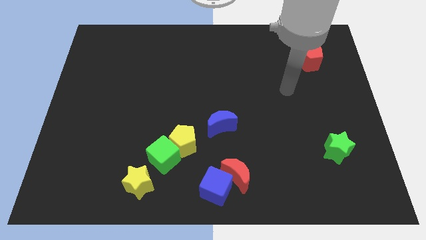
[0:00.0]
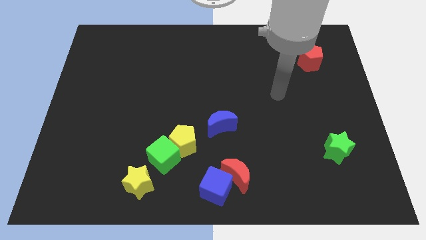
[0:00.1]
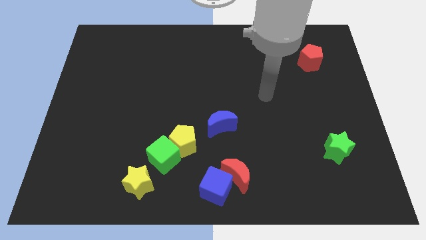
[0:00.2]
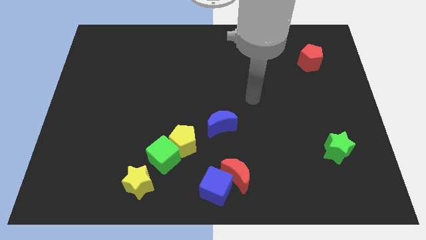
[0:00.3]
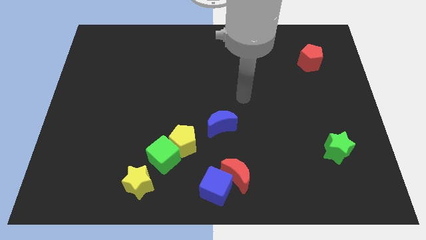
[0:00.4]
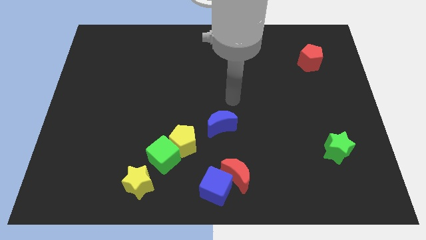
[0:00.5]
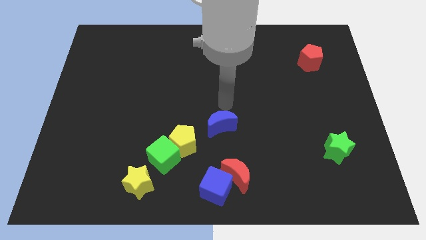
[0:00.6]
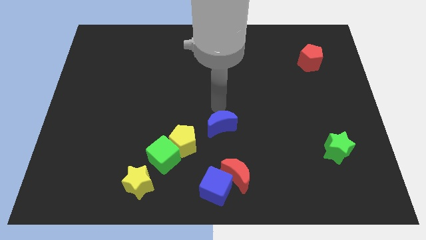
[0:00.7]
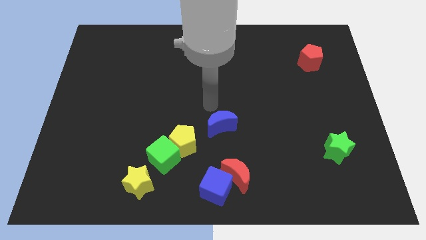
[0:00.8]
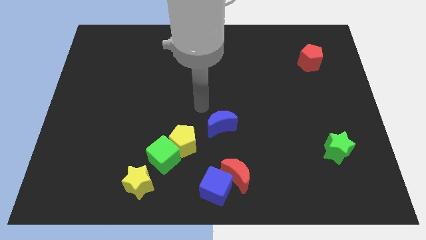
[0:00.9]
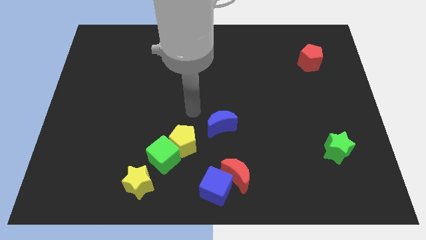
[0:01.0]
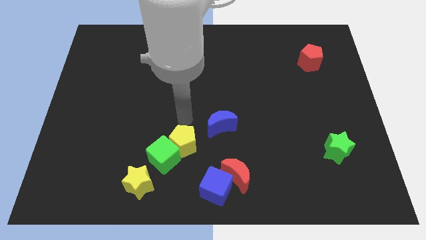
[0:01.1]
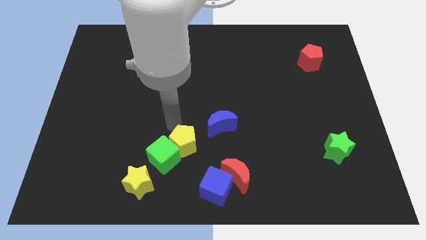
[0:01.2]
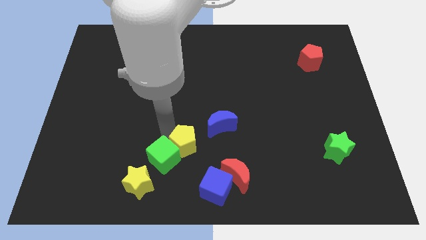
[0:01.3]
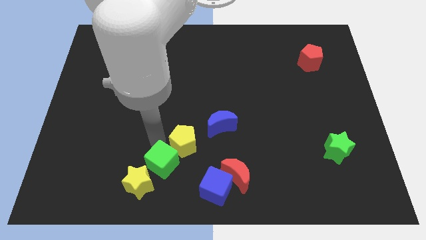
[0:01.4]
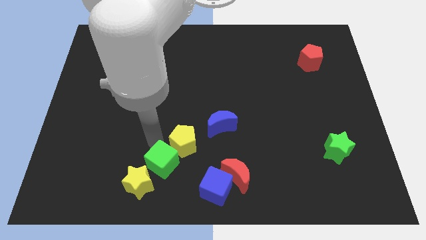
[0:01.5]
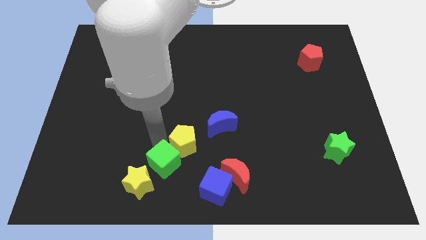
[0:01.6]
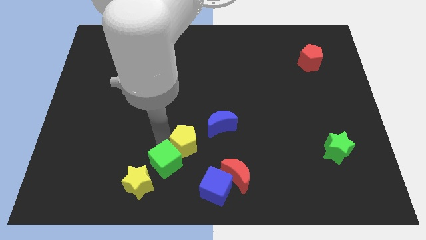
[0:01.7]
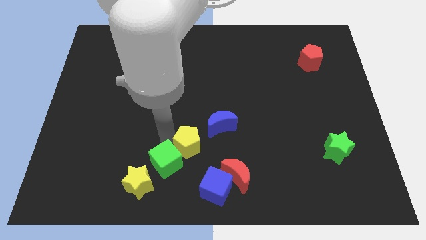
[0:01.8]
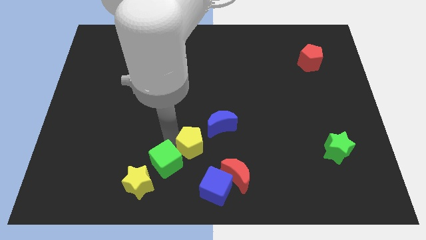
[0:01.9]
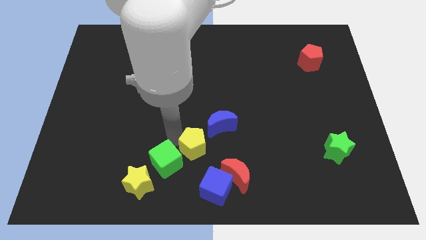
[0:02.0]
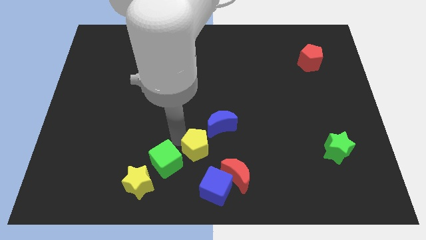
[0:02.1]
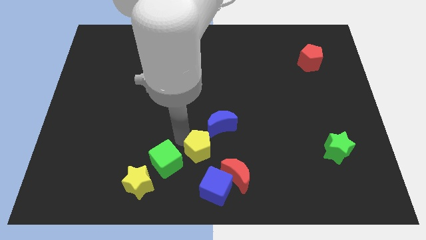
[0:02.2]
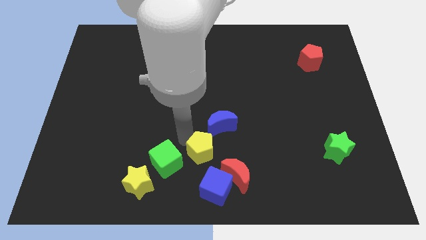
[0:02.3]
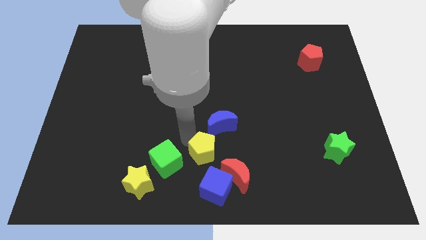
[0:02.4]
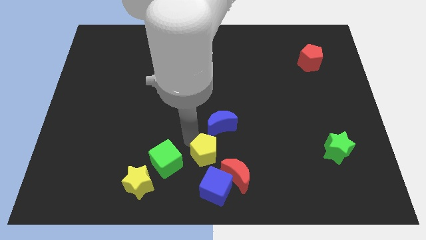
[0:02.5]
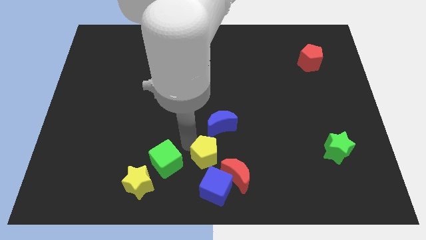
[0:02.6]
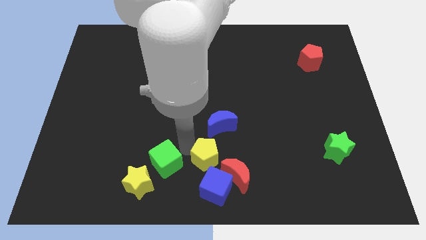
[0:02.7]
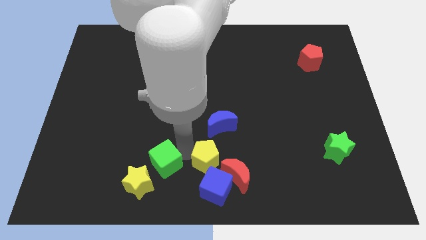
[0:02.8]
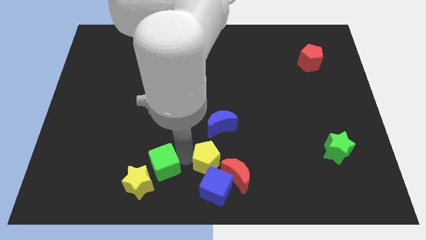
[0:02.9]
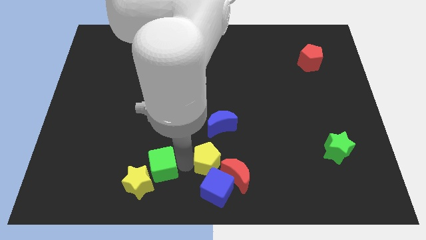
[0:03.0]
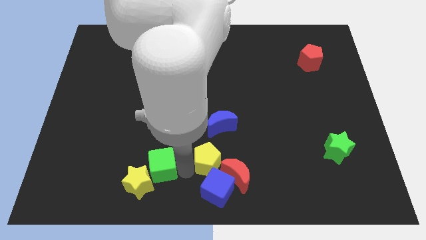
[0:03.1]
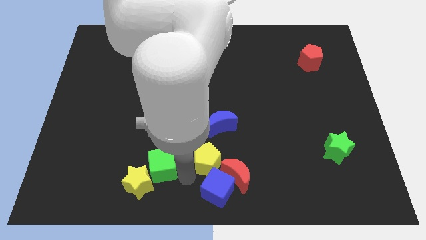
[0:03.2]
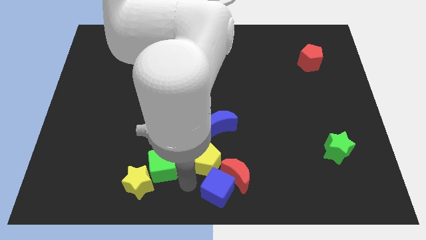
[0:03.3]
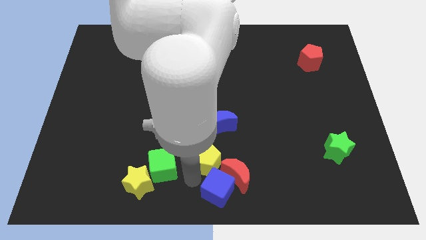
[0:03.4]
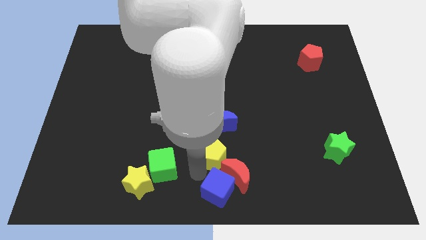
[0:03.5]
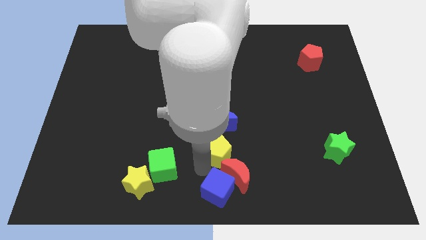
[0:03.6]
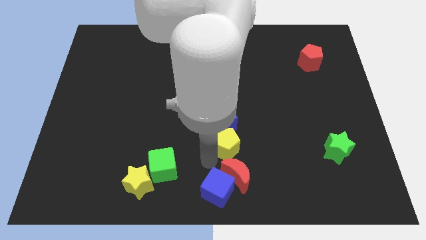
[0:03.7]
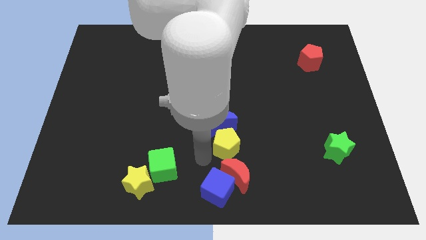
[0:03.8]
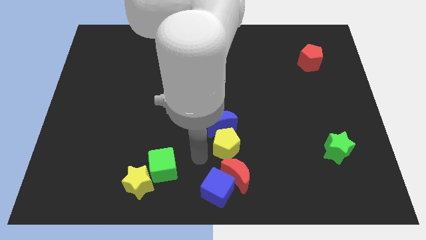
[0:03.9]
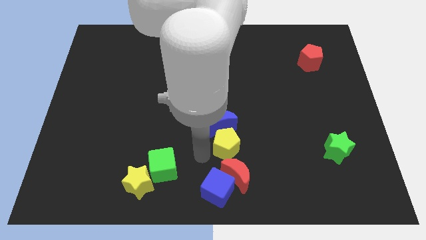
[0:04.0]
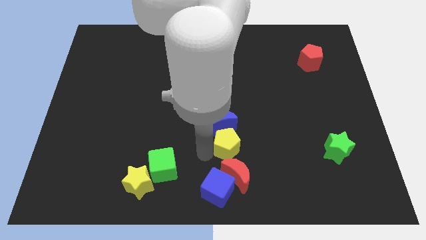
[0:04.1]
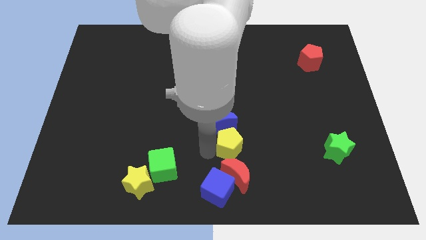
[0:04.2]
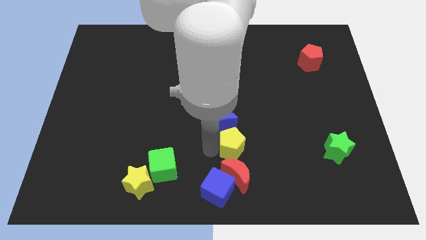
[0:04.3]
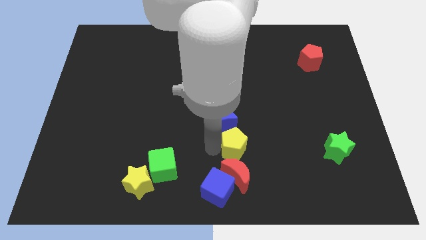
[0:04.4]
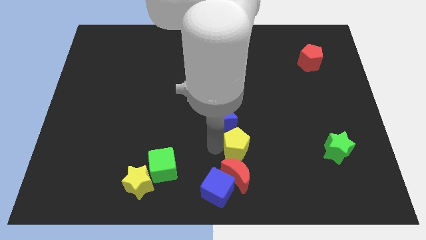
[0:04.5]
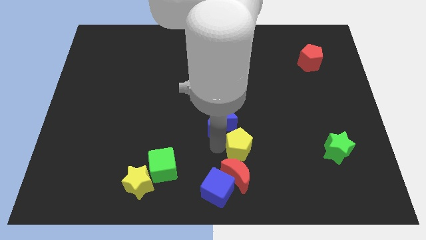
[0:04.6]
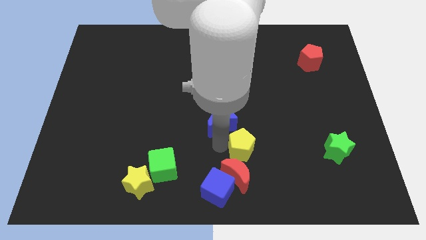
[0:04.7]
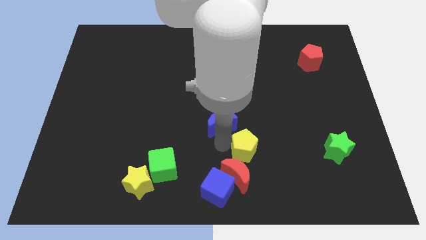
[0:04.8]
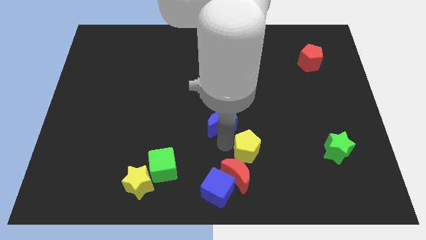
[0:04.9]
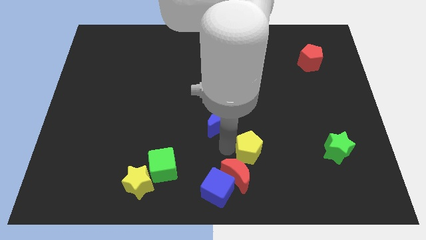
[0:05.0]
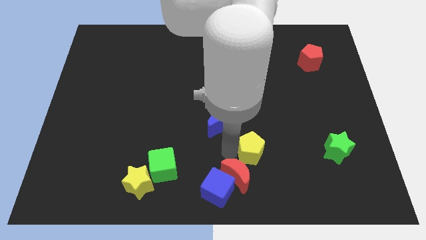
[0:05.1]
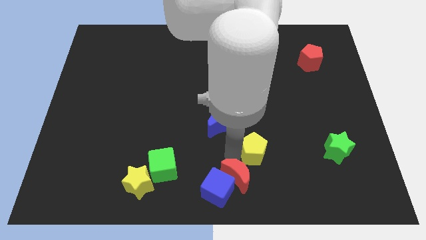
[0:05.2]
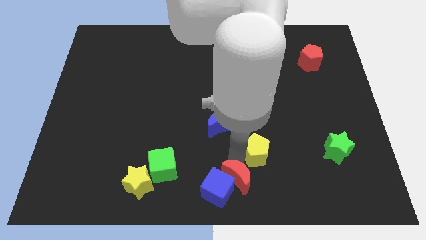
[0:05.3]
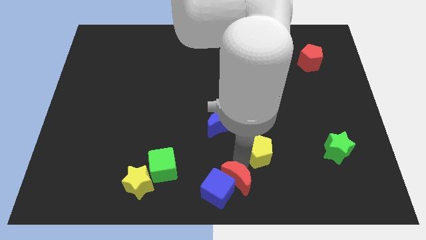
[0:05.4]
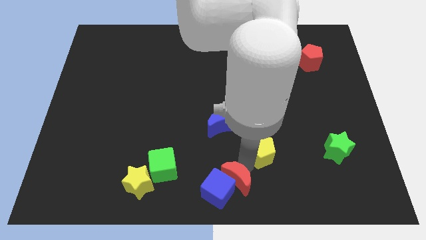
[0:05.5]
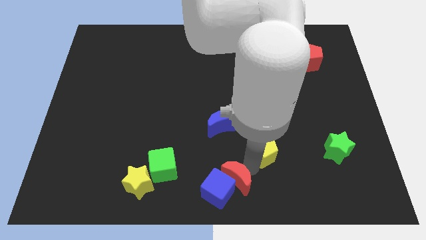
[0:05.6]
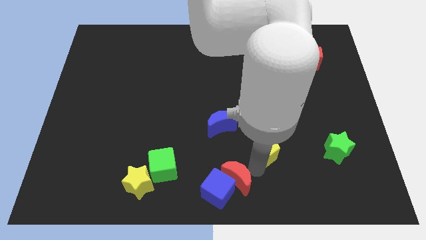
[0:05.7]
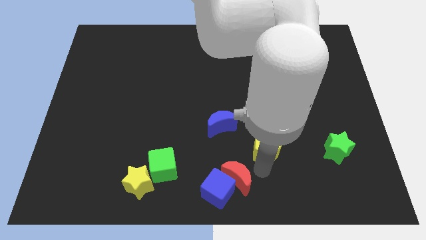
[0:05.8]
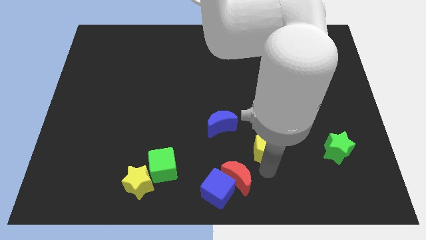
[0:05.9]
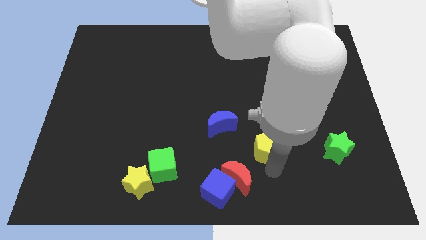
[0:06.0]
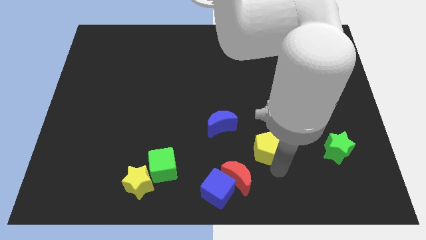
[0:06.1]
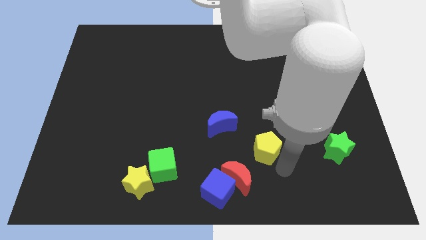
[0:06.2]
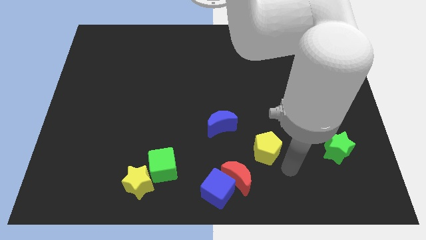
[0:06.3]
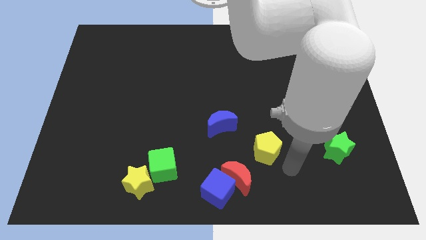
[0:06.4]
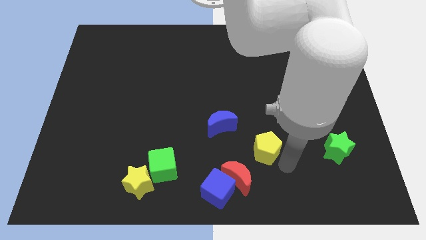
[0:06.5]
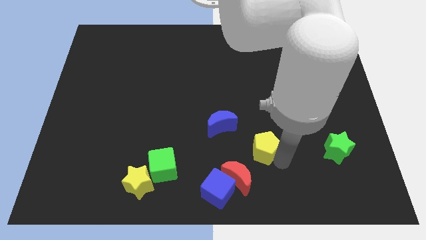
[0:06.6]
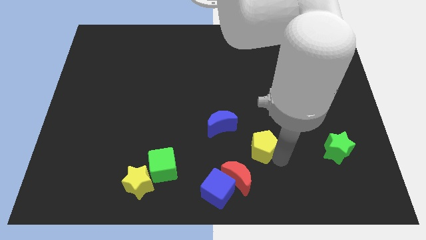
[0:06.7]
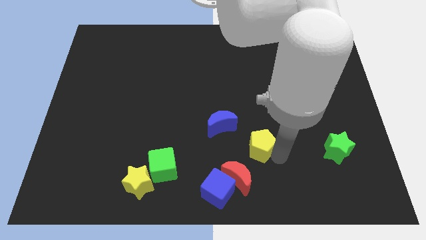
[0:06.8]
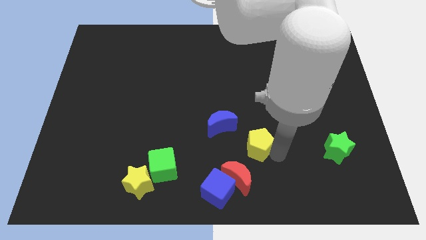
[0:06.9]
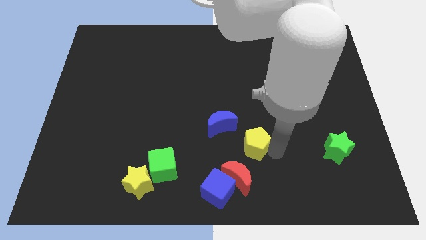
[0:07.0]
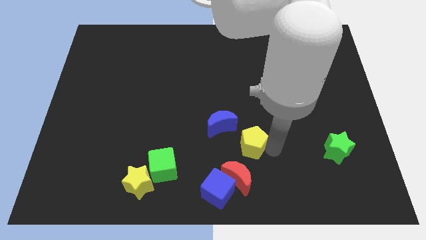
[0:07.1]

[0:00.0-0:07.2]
move the yellow pentagon to the right of the blue moon
